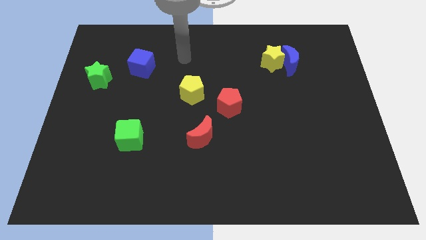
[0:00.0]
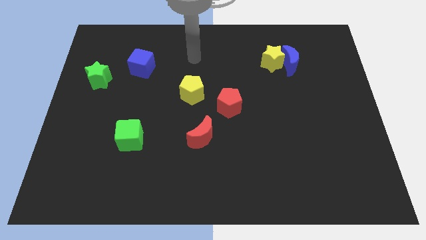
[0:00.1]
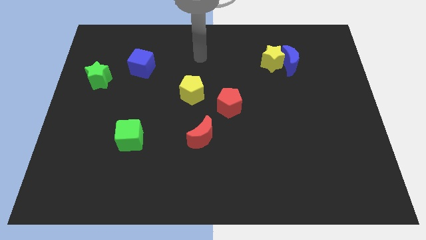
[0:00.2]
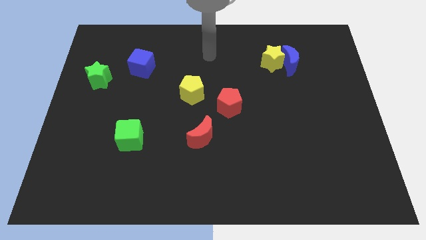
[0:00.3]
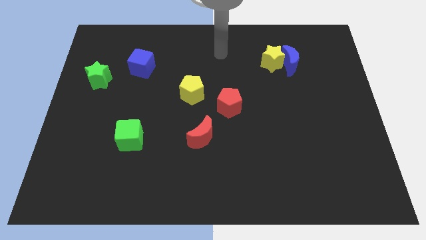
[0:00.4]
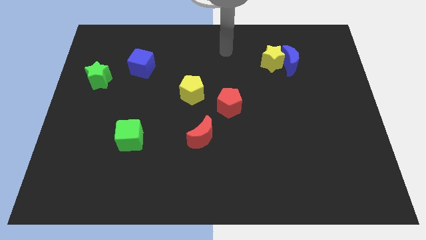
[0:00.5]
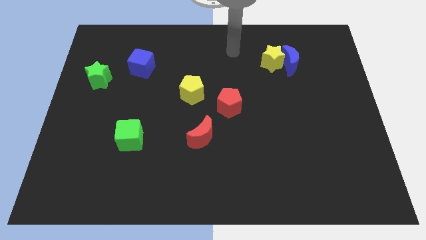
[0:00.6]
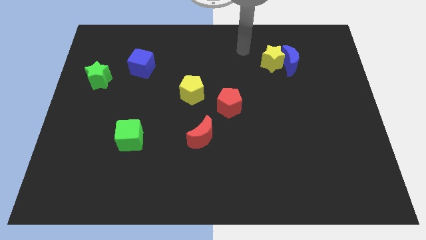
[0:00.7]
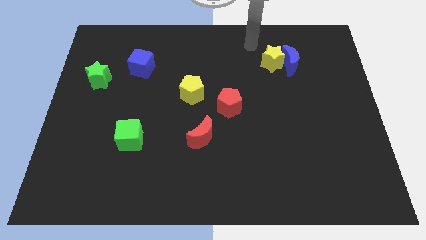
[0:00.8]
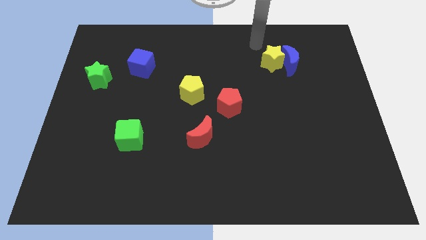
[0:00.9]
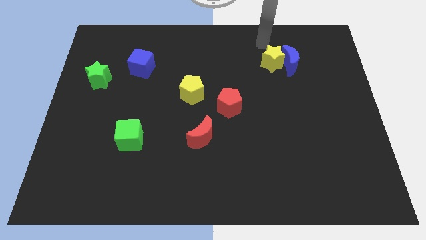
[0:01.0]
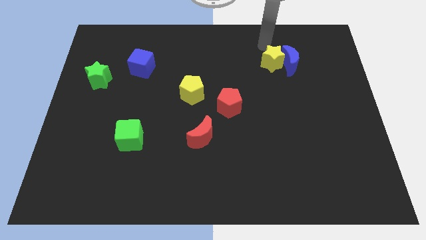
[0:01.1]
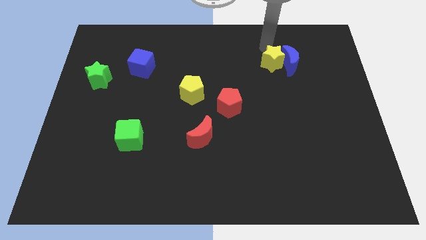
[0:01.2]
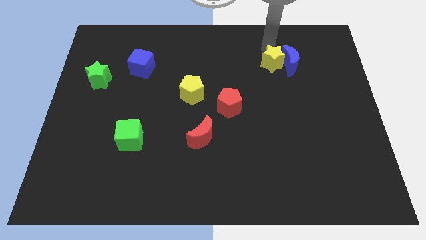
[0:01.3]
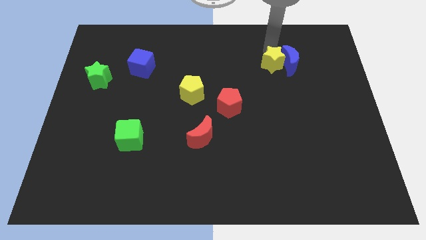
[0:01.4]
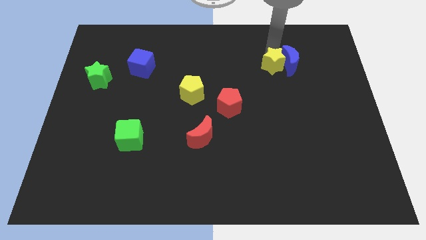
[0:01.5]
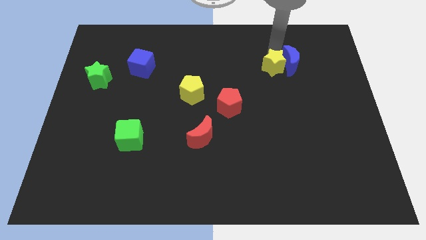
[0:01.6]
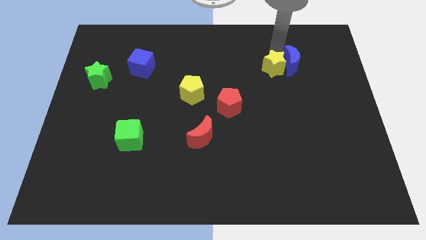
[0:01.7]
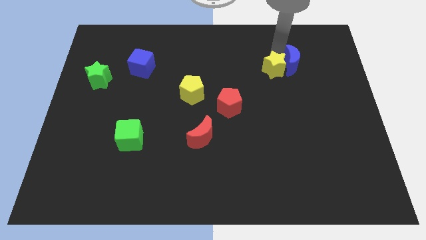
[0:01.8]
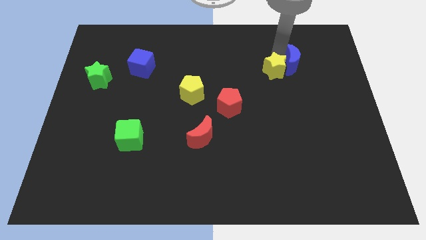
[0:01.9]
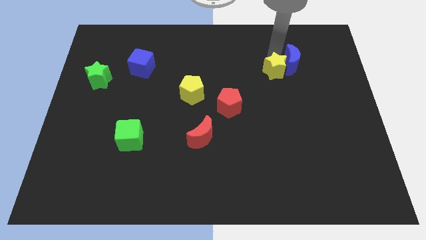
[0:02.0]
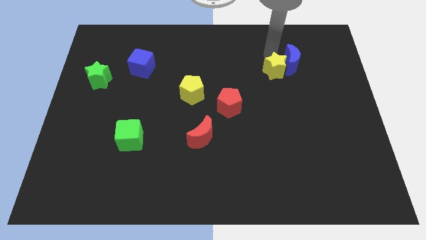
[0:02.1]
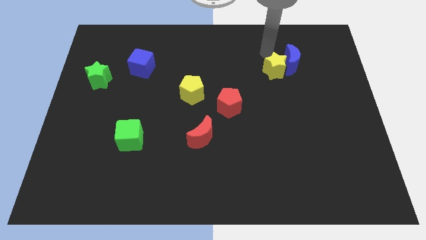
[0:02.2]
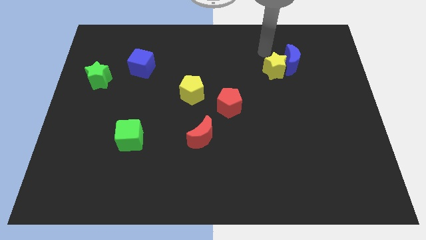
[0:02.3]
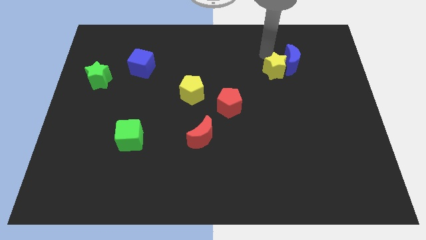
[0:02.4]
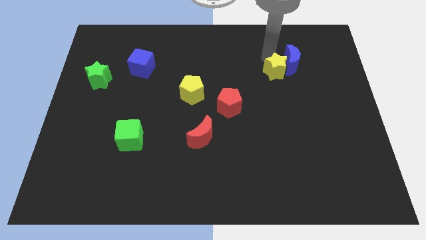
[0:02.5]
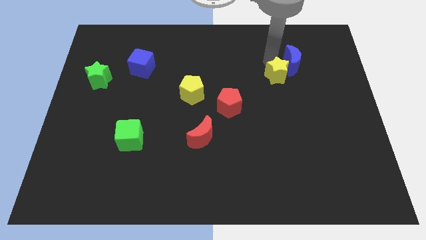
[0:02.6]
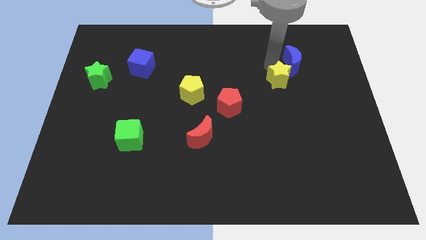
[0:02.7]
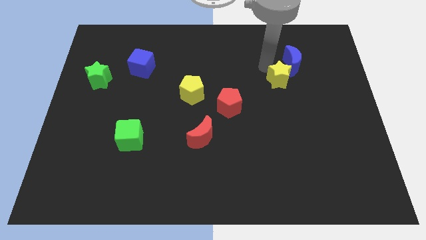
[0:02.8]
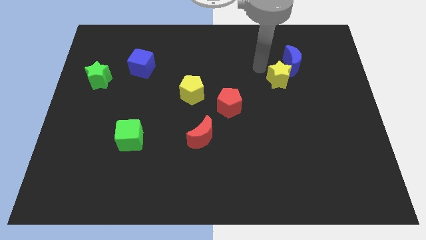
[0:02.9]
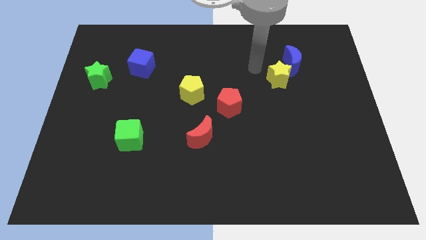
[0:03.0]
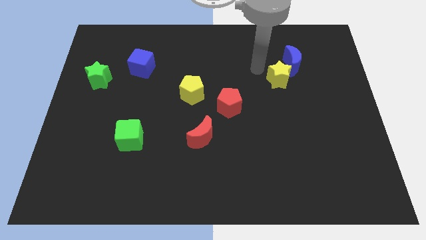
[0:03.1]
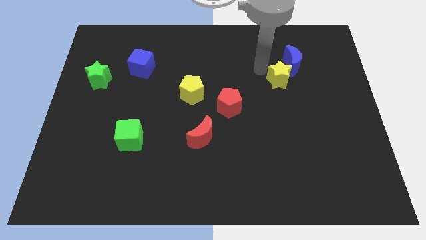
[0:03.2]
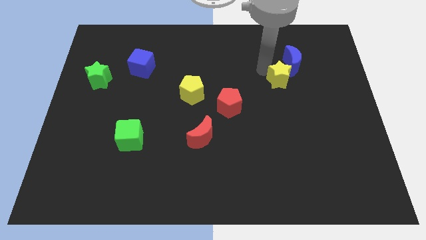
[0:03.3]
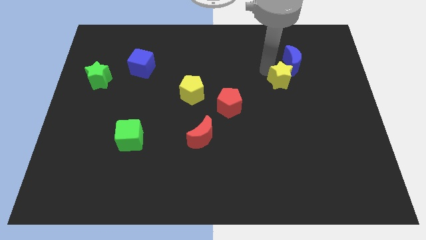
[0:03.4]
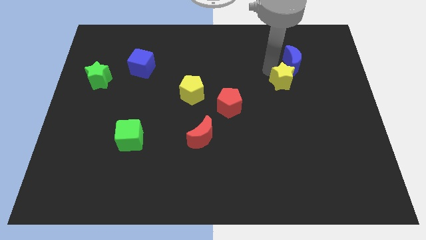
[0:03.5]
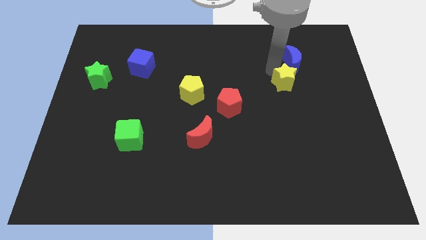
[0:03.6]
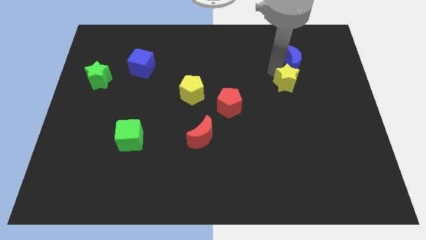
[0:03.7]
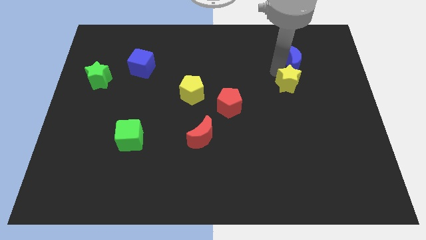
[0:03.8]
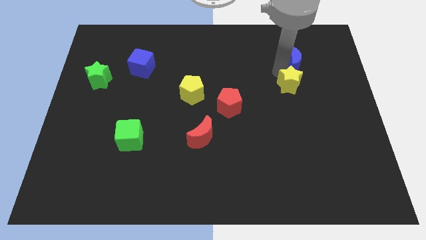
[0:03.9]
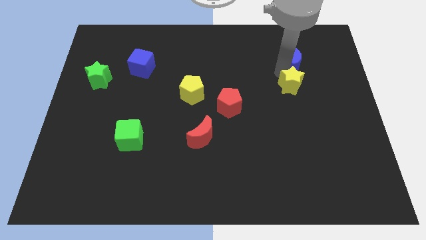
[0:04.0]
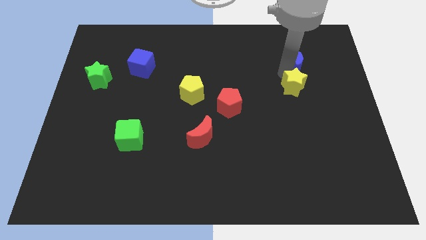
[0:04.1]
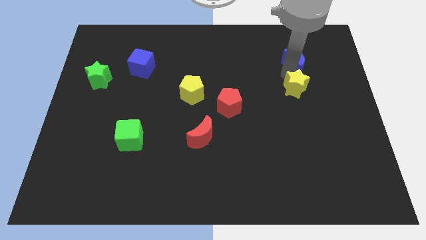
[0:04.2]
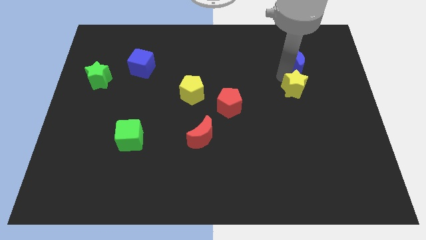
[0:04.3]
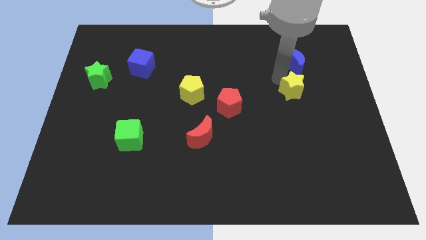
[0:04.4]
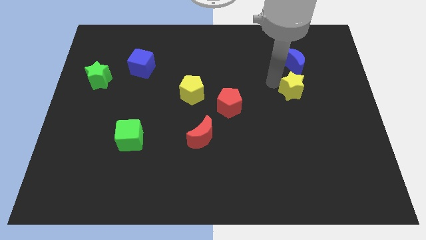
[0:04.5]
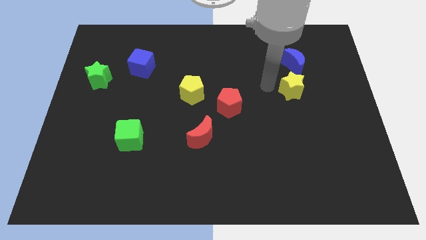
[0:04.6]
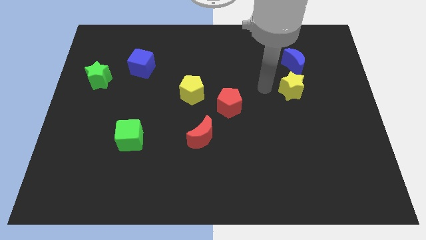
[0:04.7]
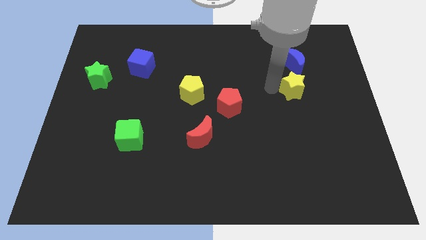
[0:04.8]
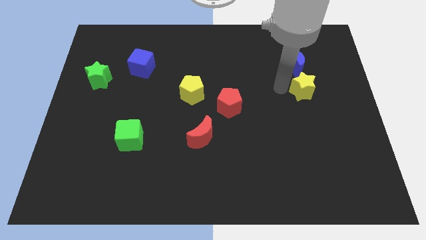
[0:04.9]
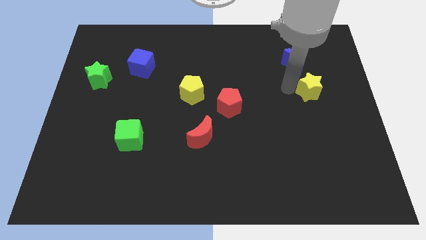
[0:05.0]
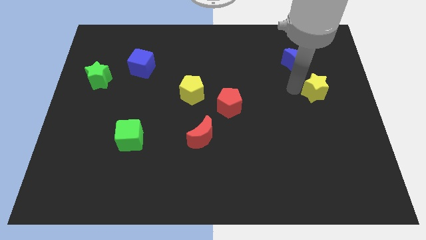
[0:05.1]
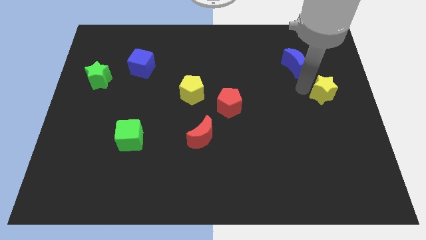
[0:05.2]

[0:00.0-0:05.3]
slide the yellow star to the right side of the board

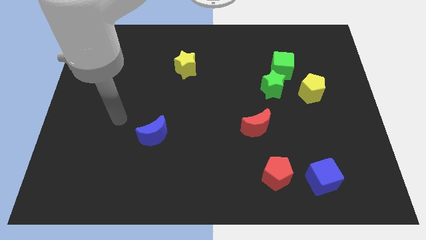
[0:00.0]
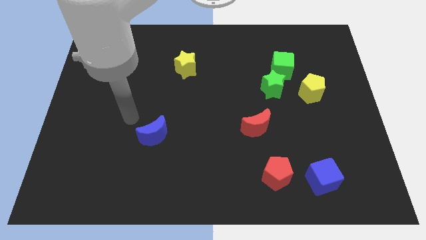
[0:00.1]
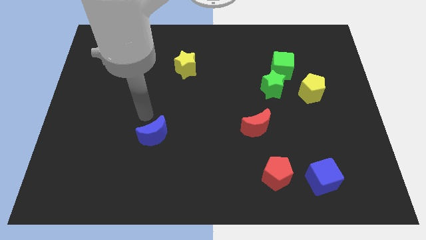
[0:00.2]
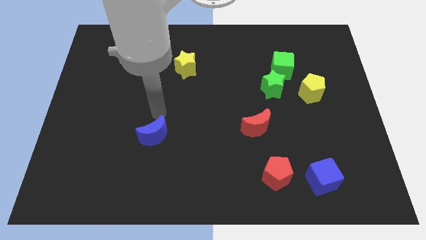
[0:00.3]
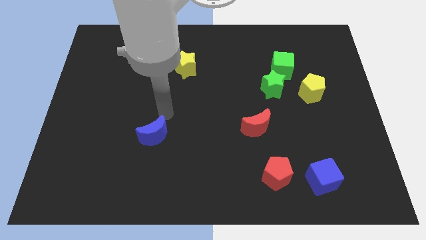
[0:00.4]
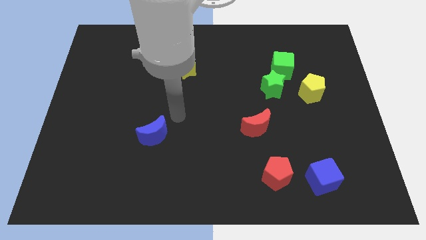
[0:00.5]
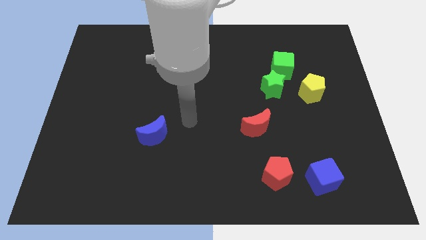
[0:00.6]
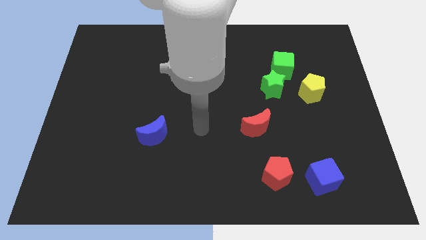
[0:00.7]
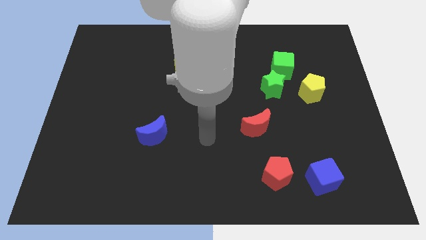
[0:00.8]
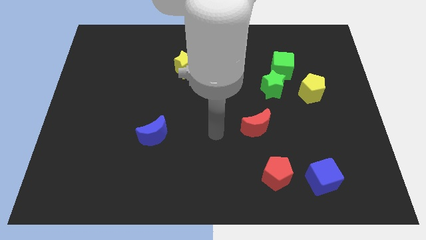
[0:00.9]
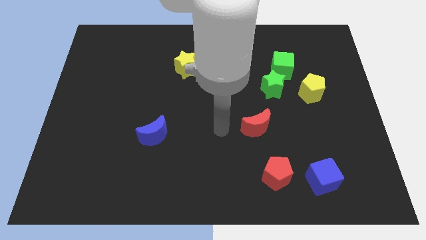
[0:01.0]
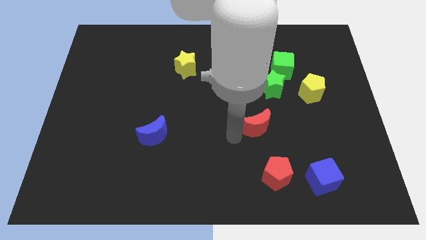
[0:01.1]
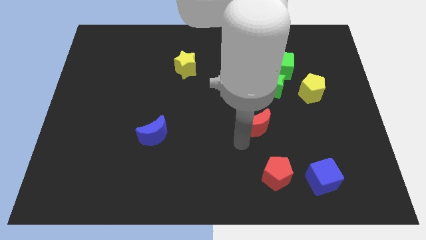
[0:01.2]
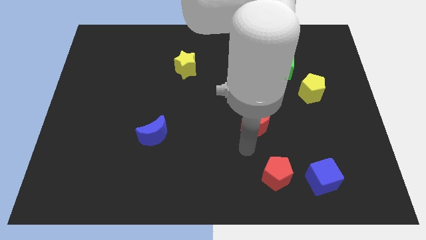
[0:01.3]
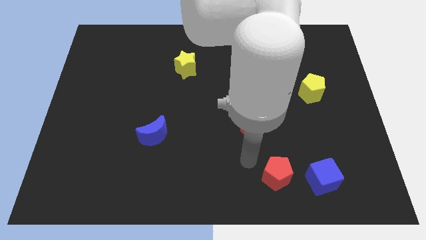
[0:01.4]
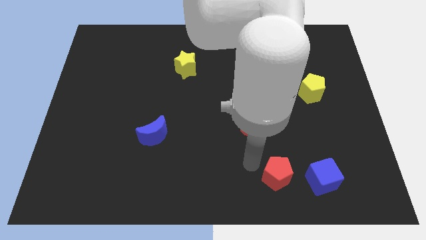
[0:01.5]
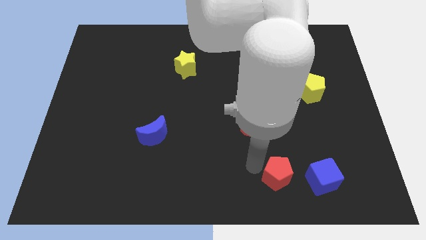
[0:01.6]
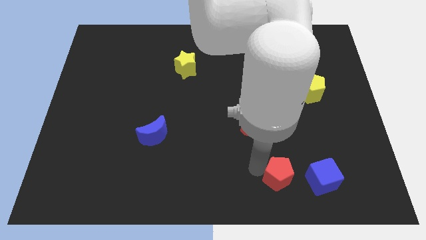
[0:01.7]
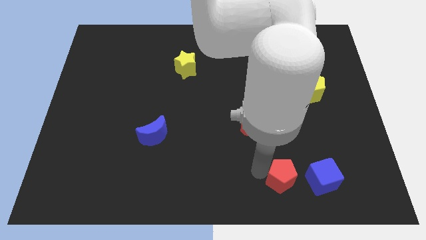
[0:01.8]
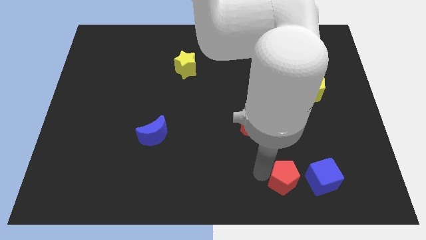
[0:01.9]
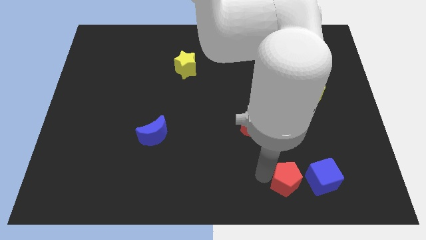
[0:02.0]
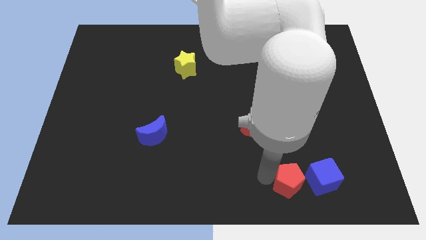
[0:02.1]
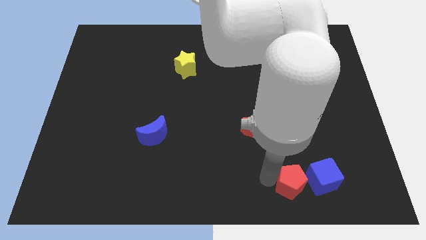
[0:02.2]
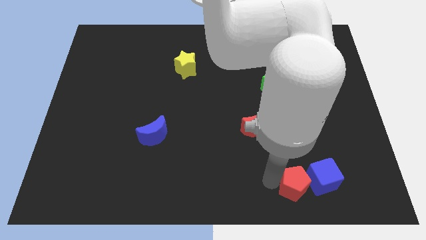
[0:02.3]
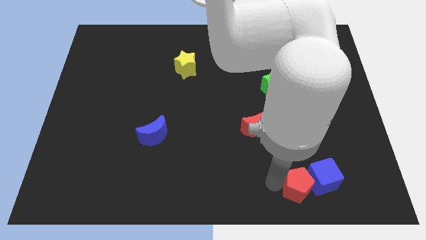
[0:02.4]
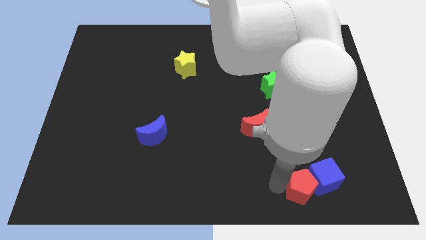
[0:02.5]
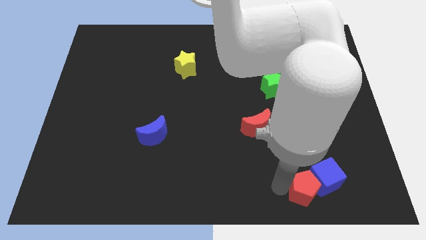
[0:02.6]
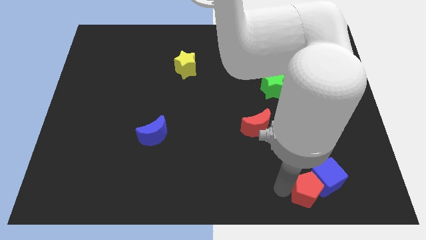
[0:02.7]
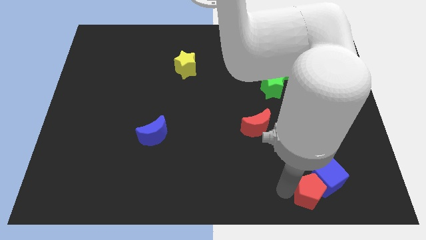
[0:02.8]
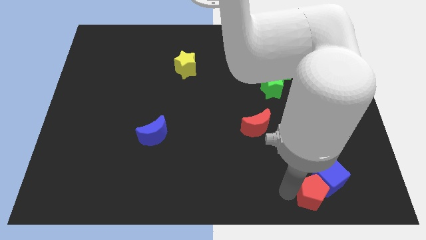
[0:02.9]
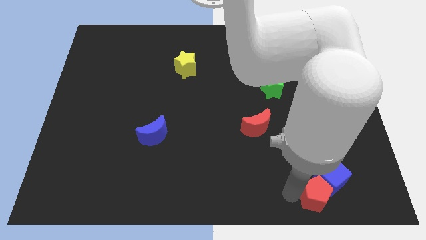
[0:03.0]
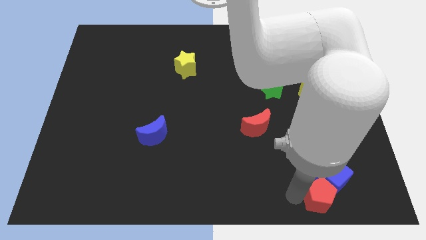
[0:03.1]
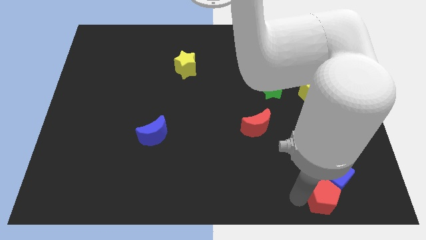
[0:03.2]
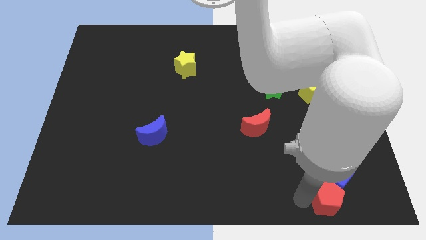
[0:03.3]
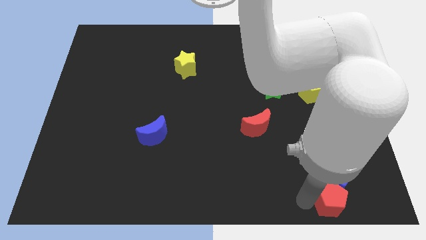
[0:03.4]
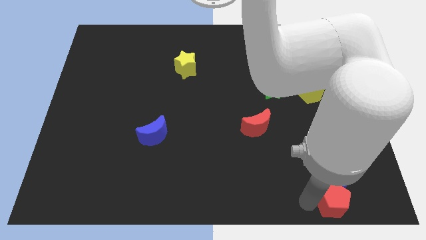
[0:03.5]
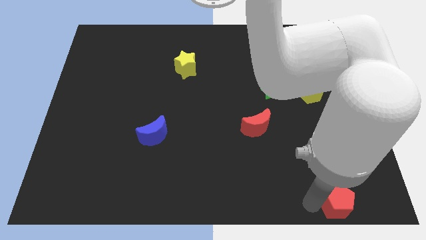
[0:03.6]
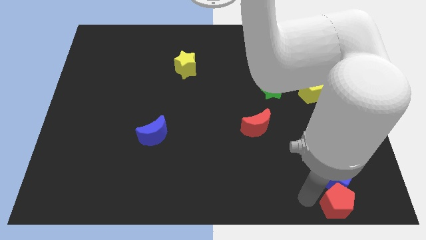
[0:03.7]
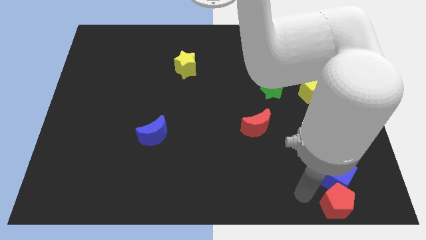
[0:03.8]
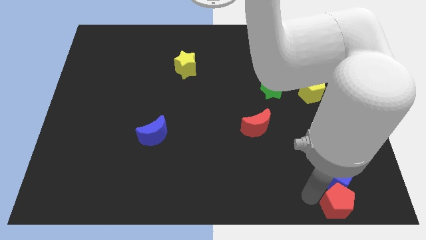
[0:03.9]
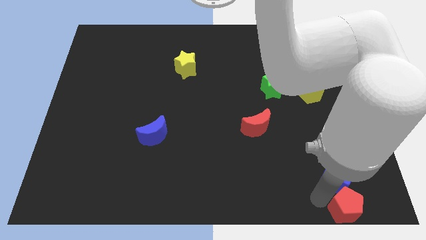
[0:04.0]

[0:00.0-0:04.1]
slide the red pentagon to the bottom right
